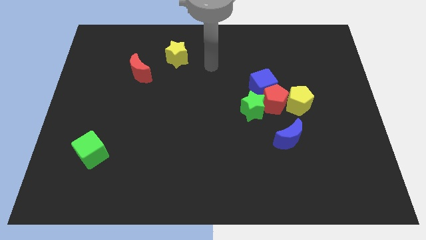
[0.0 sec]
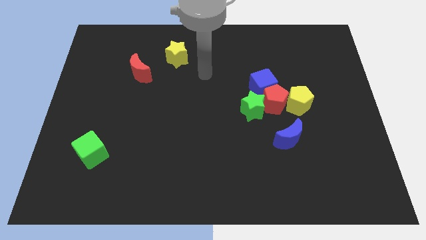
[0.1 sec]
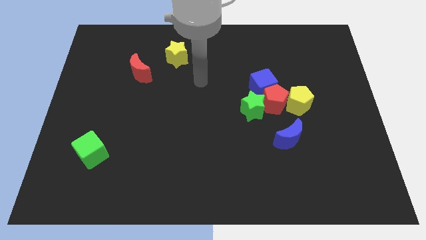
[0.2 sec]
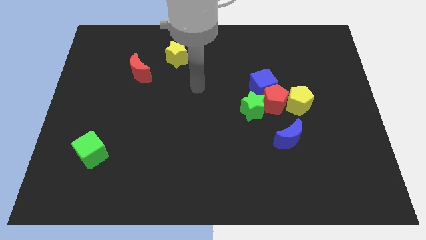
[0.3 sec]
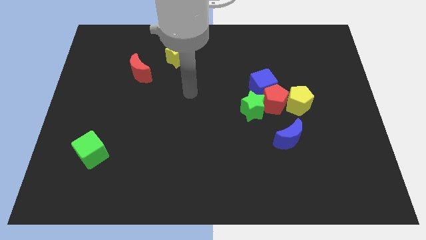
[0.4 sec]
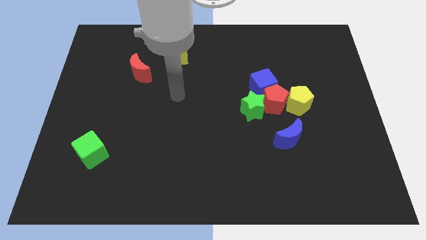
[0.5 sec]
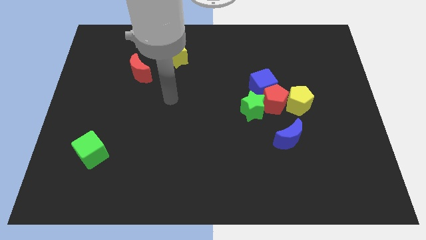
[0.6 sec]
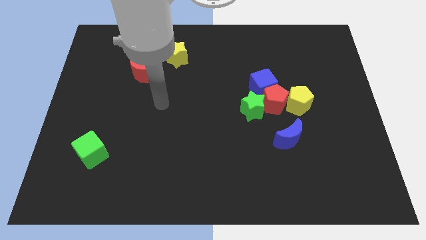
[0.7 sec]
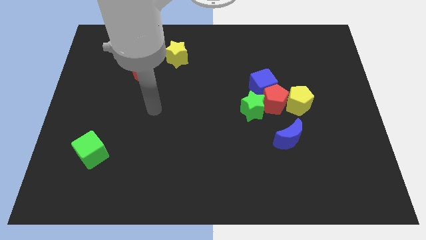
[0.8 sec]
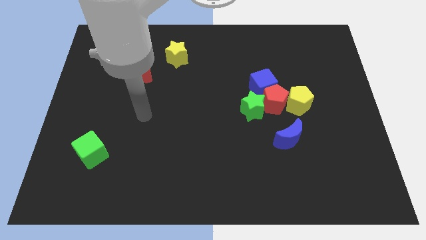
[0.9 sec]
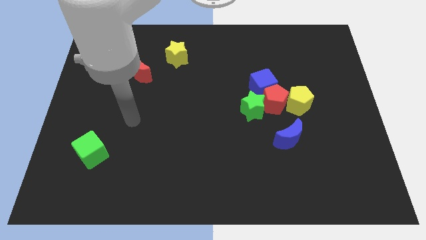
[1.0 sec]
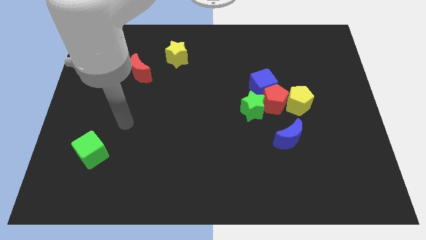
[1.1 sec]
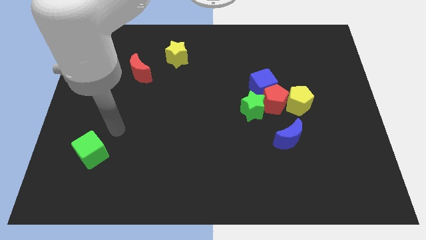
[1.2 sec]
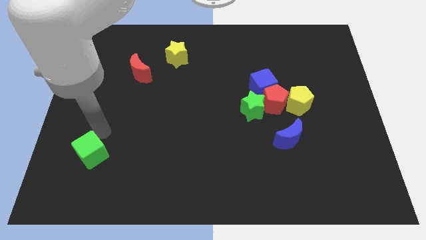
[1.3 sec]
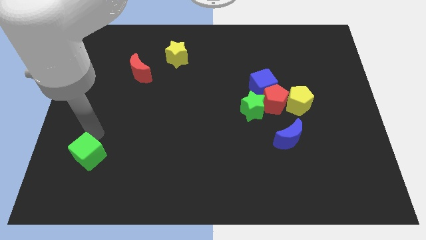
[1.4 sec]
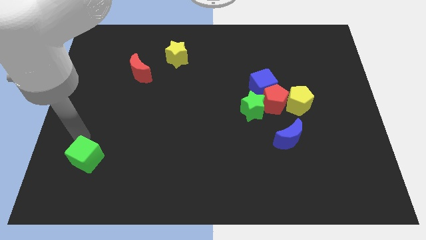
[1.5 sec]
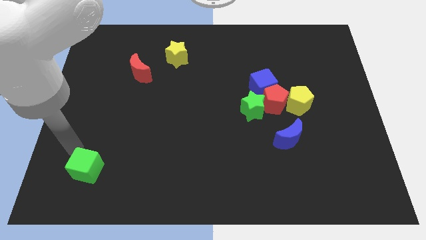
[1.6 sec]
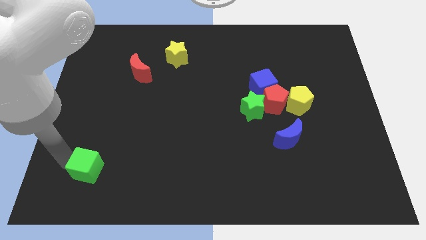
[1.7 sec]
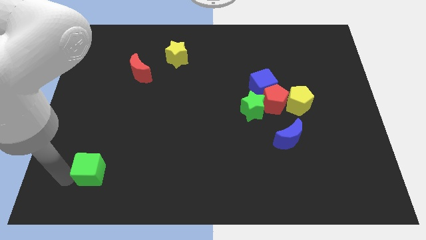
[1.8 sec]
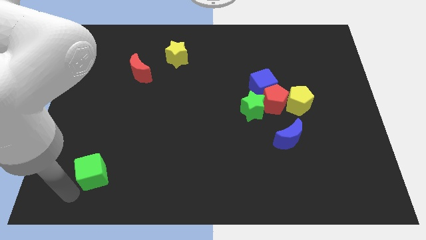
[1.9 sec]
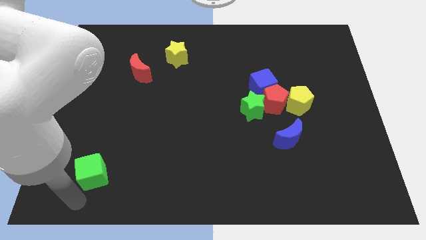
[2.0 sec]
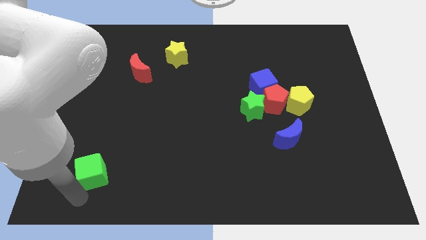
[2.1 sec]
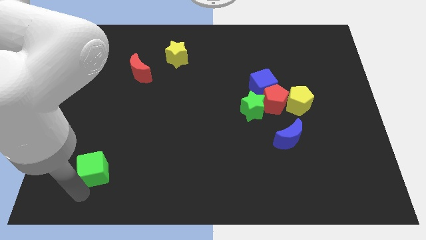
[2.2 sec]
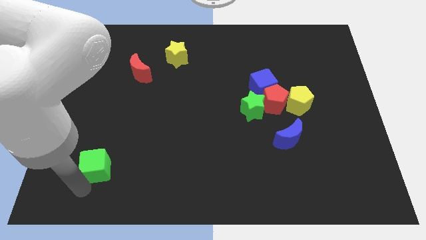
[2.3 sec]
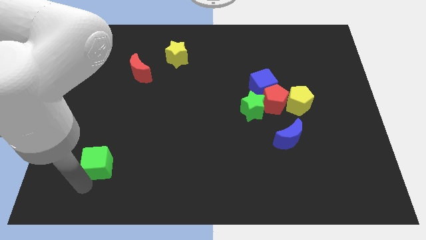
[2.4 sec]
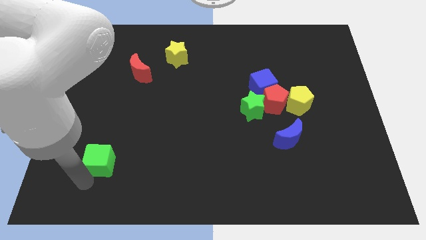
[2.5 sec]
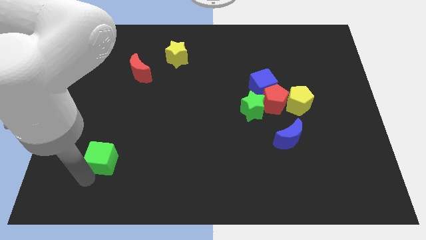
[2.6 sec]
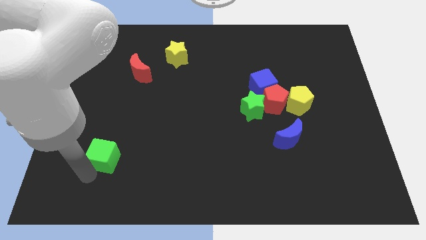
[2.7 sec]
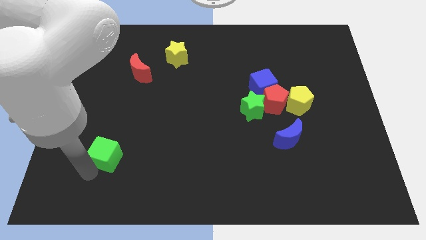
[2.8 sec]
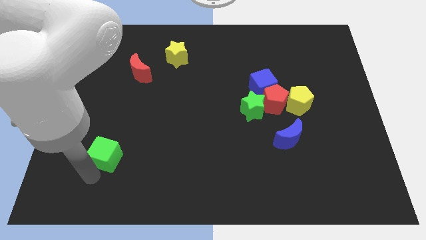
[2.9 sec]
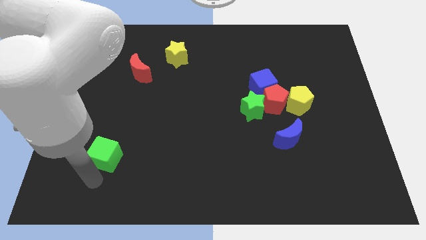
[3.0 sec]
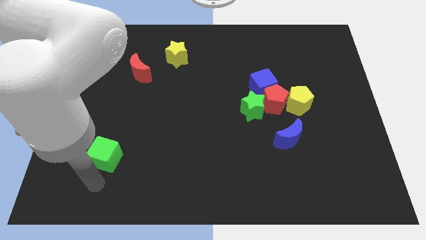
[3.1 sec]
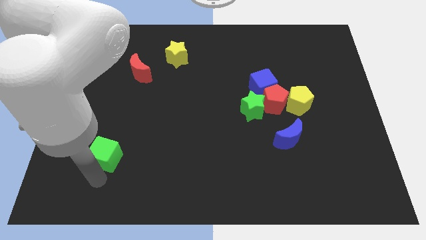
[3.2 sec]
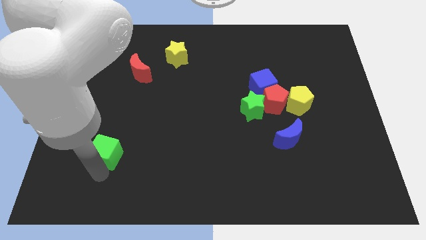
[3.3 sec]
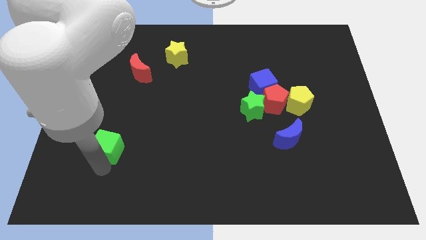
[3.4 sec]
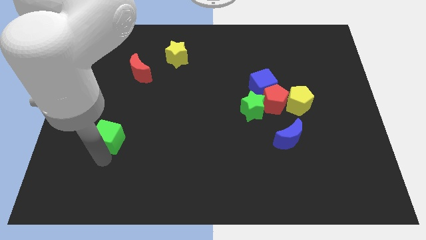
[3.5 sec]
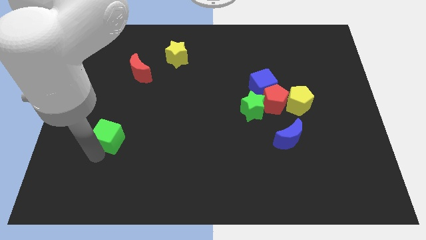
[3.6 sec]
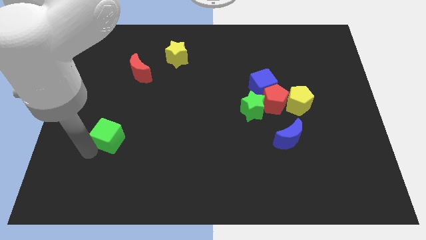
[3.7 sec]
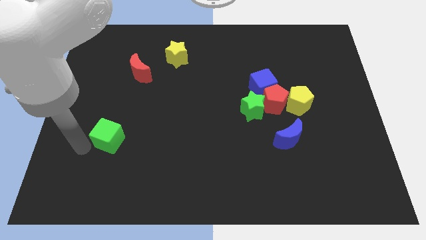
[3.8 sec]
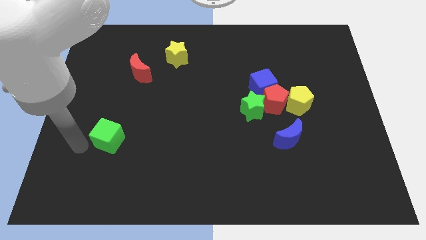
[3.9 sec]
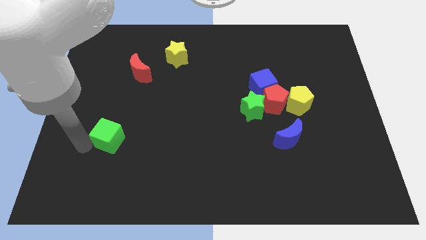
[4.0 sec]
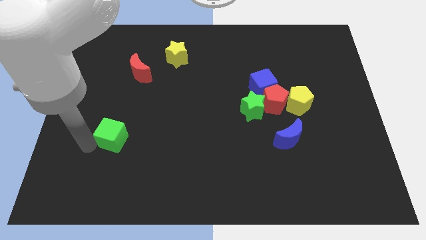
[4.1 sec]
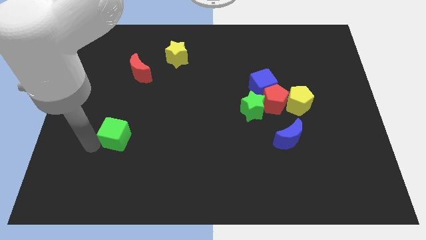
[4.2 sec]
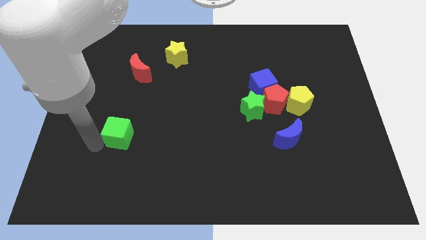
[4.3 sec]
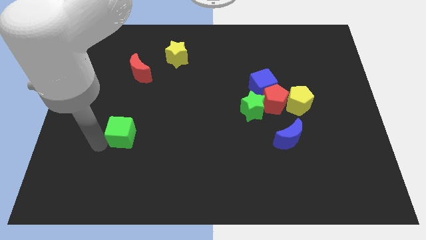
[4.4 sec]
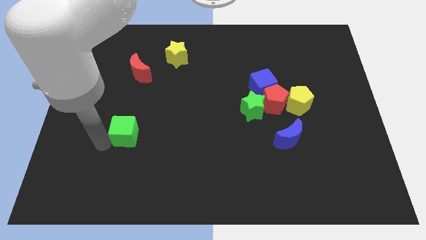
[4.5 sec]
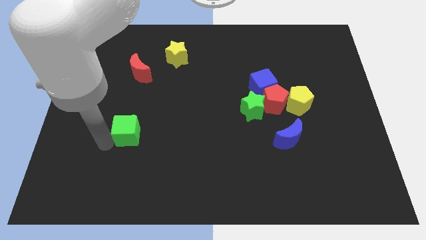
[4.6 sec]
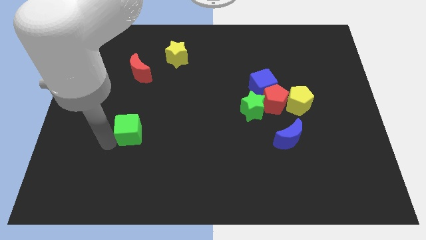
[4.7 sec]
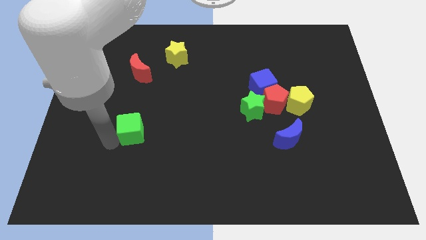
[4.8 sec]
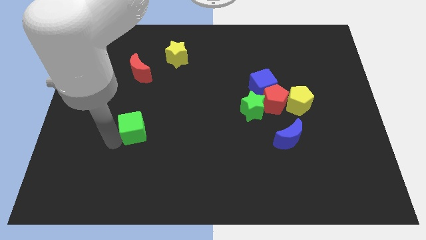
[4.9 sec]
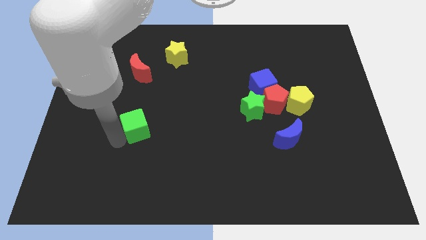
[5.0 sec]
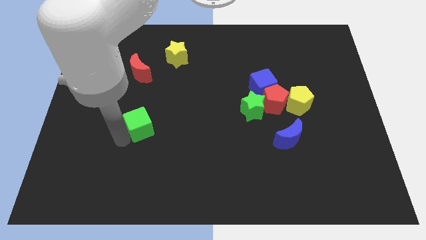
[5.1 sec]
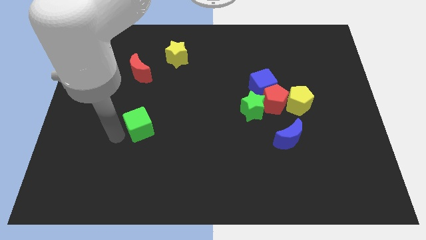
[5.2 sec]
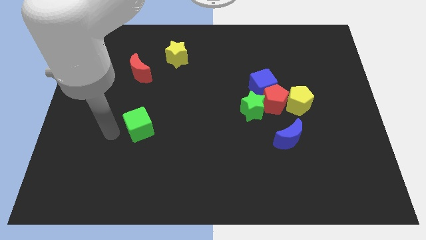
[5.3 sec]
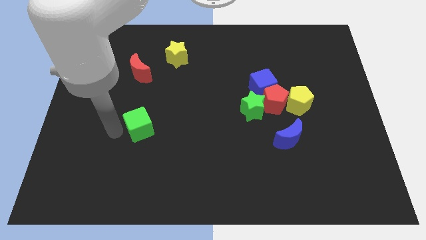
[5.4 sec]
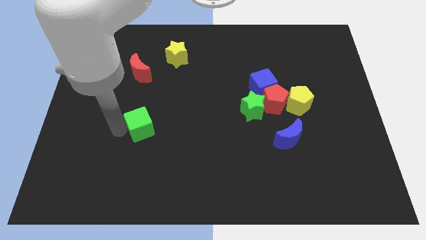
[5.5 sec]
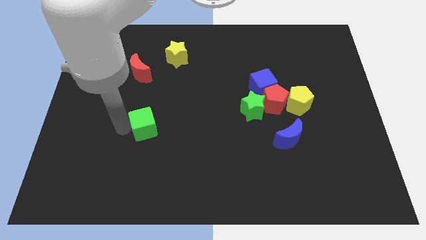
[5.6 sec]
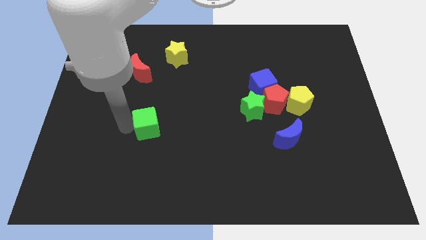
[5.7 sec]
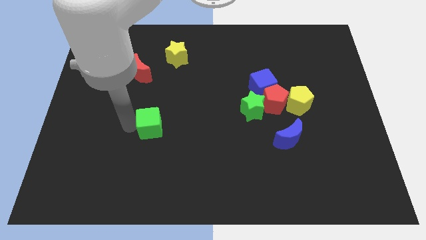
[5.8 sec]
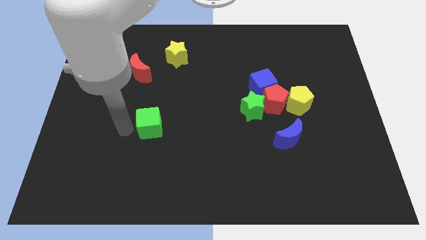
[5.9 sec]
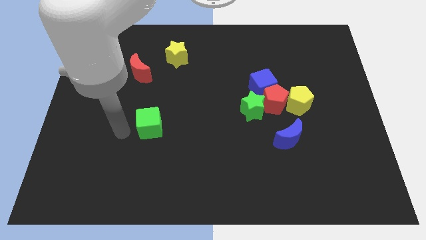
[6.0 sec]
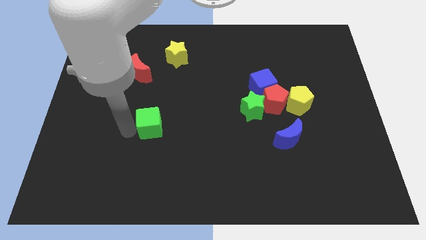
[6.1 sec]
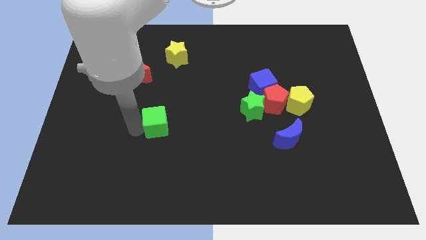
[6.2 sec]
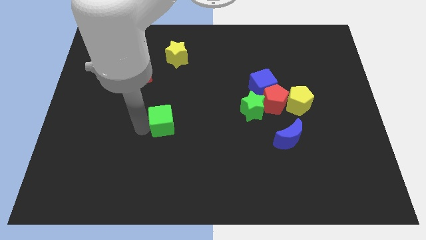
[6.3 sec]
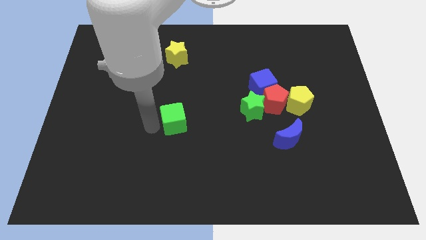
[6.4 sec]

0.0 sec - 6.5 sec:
slide the green cube to the center

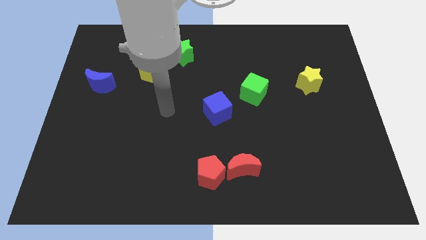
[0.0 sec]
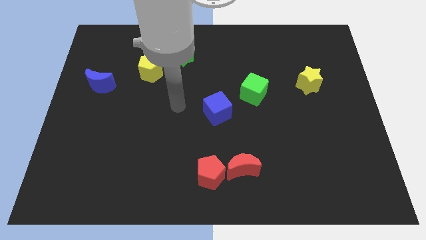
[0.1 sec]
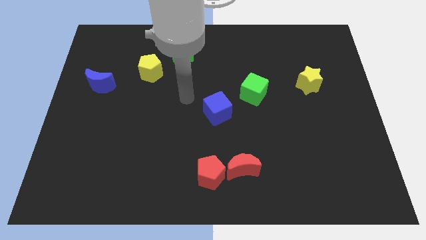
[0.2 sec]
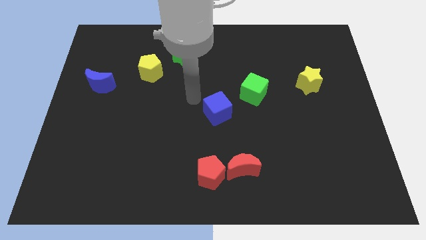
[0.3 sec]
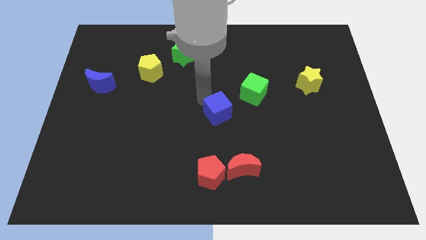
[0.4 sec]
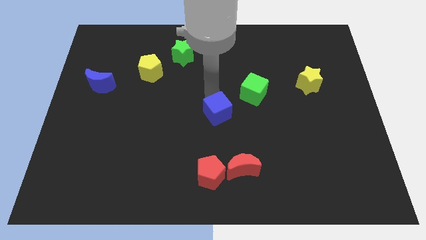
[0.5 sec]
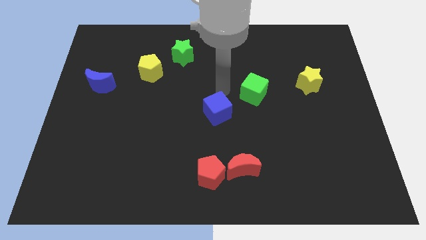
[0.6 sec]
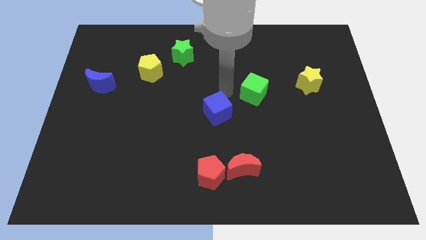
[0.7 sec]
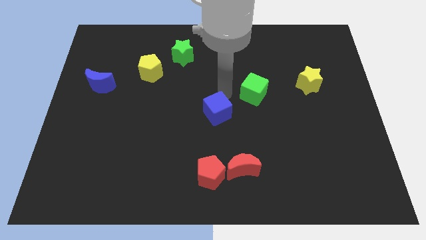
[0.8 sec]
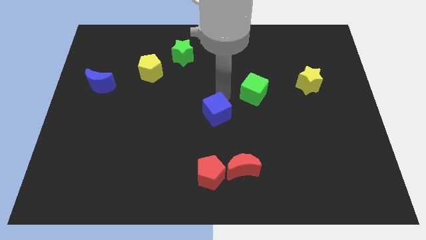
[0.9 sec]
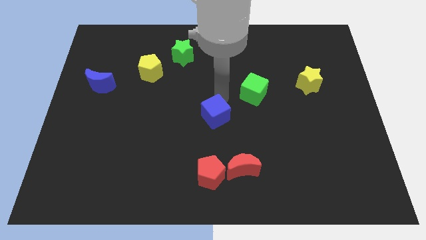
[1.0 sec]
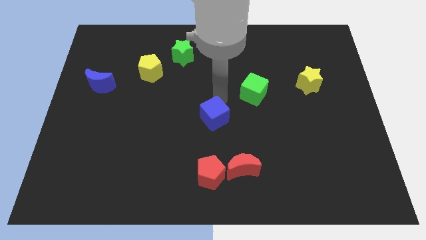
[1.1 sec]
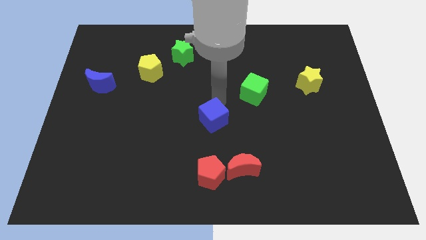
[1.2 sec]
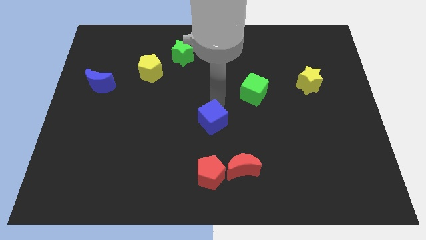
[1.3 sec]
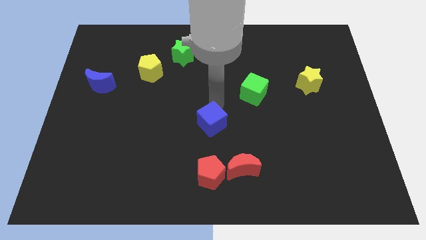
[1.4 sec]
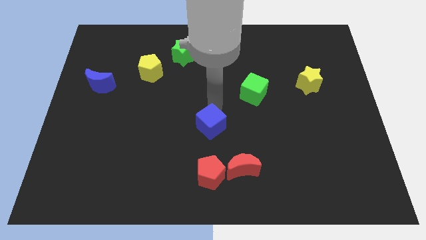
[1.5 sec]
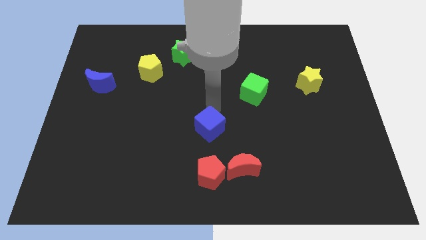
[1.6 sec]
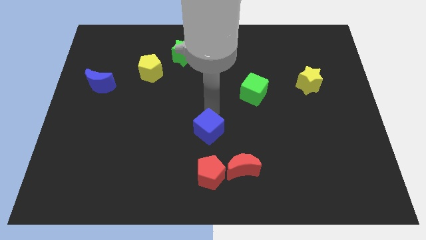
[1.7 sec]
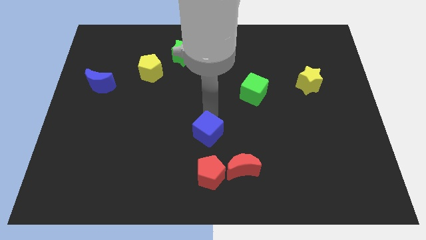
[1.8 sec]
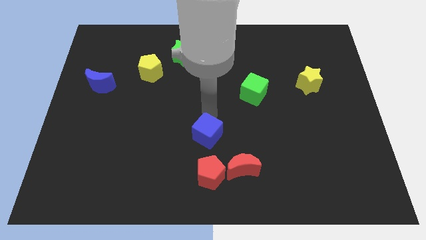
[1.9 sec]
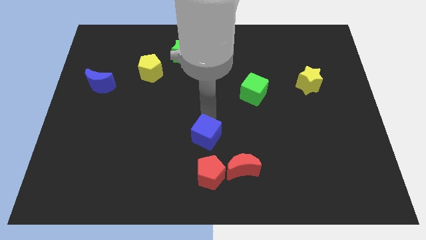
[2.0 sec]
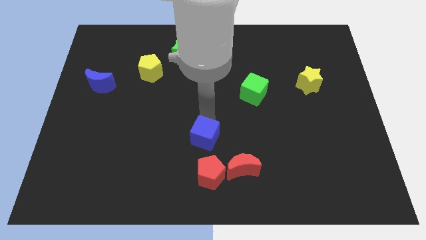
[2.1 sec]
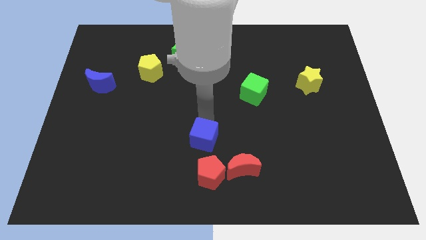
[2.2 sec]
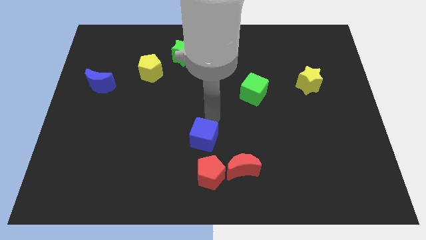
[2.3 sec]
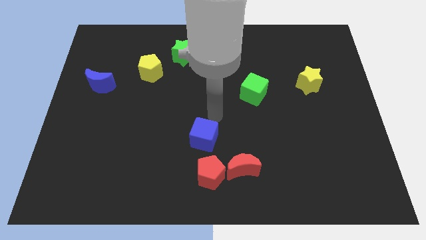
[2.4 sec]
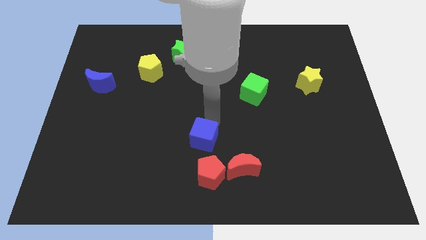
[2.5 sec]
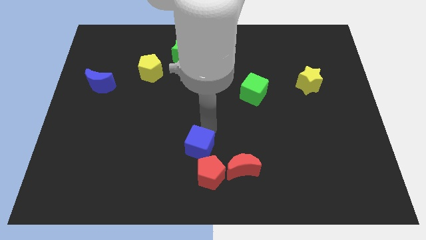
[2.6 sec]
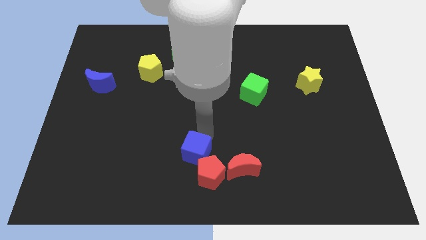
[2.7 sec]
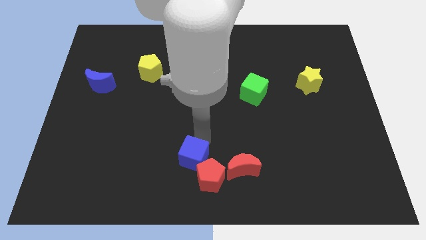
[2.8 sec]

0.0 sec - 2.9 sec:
put the blue cube to the bottom side
